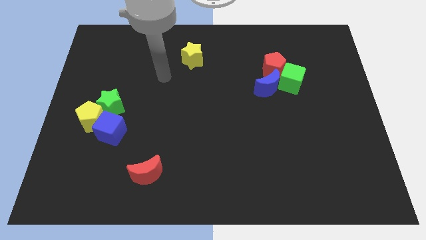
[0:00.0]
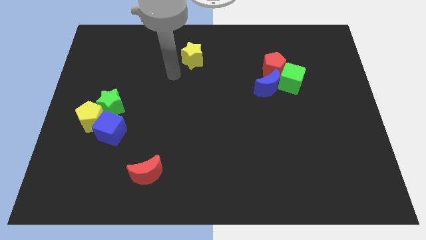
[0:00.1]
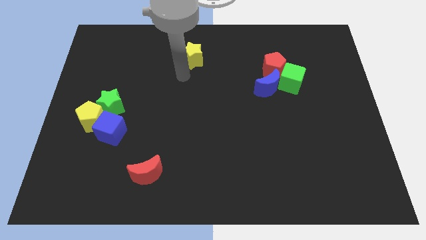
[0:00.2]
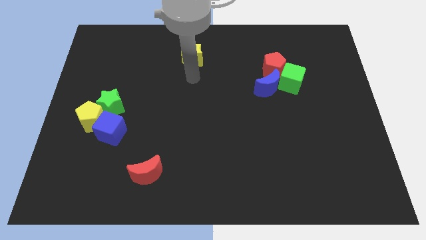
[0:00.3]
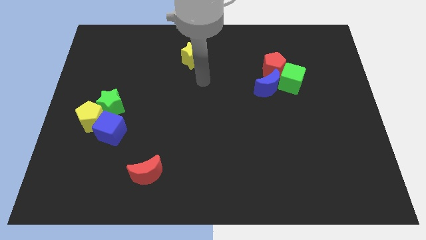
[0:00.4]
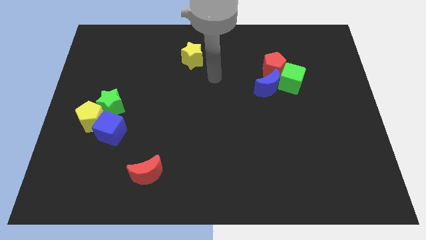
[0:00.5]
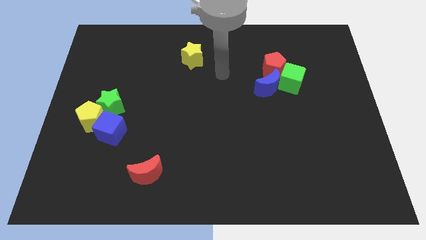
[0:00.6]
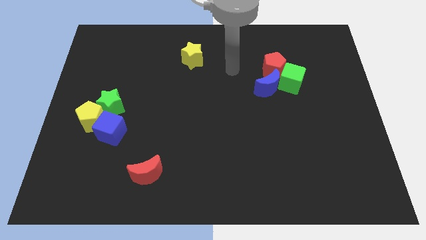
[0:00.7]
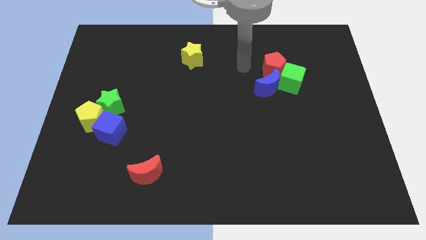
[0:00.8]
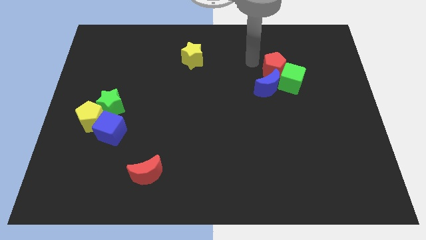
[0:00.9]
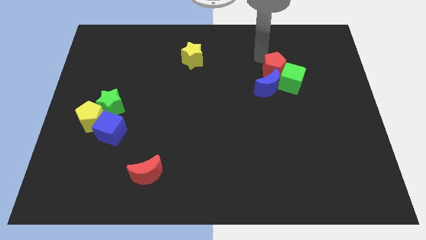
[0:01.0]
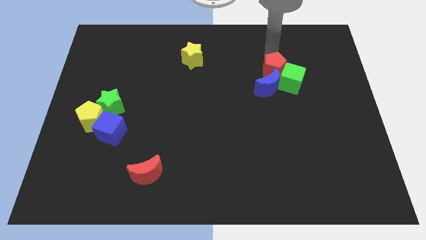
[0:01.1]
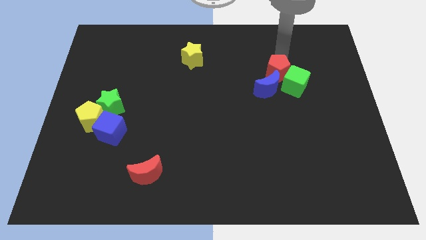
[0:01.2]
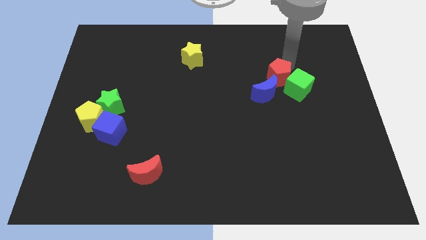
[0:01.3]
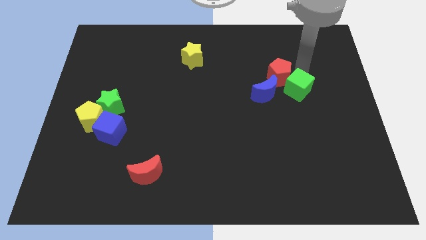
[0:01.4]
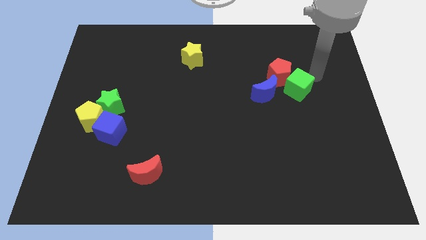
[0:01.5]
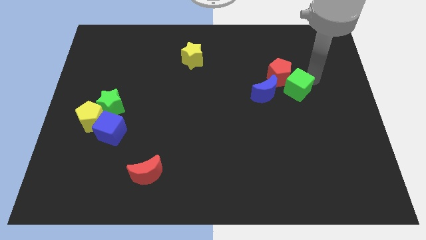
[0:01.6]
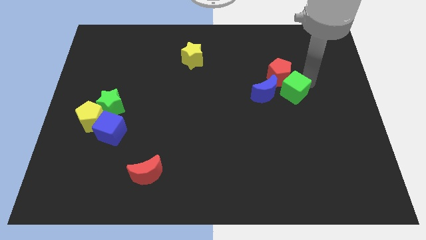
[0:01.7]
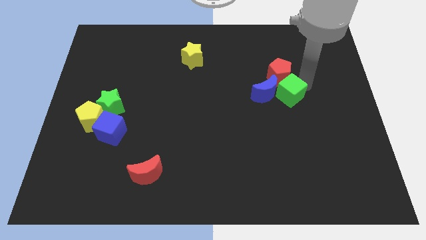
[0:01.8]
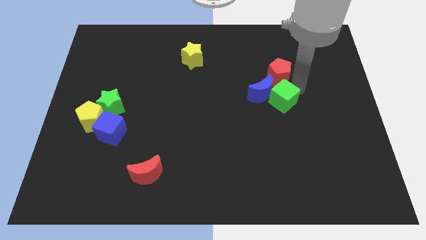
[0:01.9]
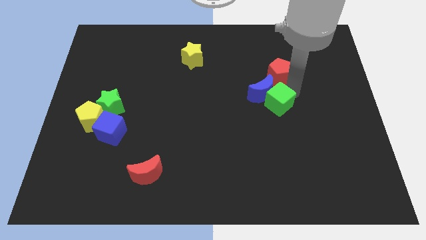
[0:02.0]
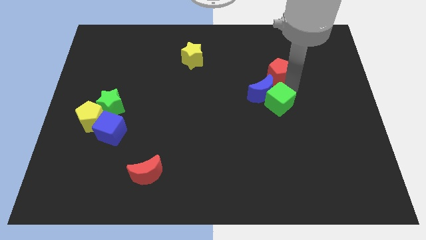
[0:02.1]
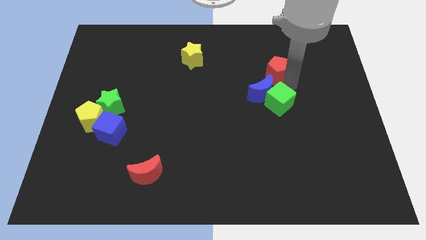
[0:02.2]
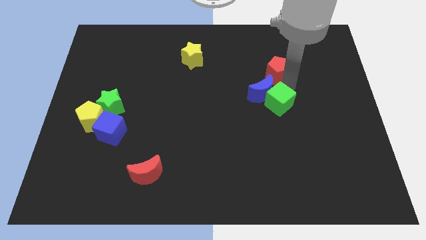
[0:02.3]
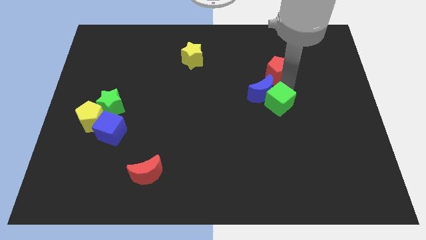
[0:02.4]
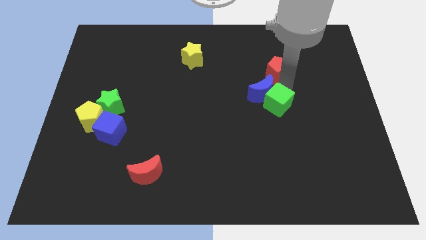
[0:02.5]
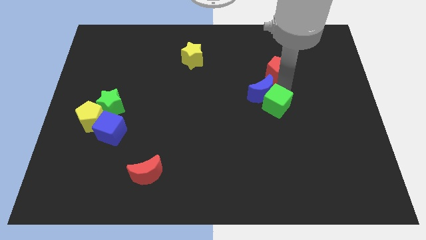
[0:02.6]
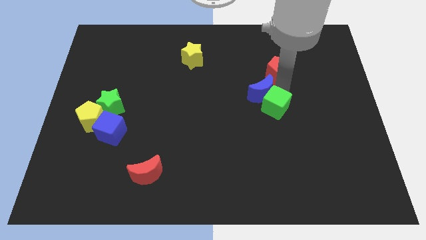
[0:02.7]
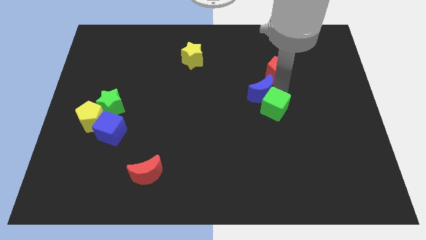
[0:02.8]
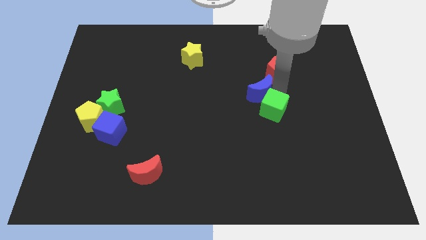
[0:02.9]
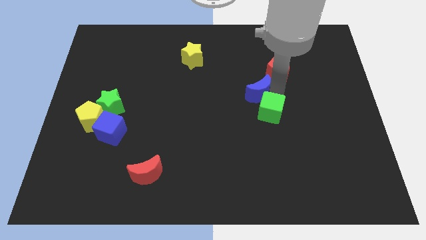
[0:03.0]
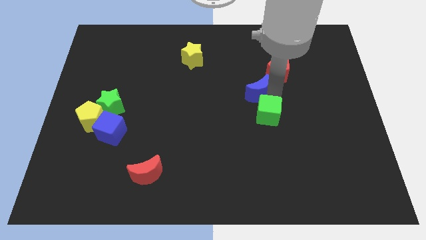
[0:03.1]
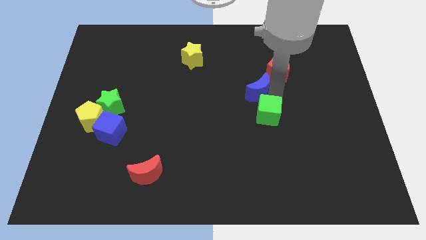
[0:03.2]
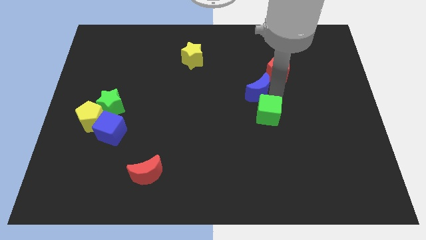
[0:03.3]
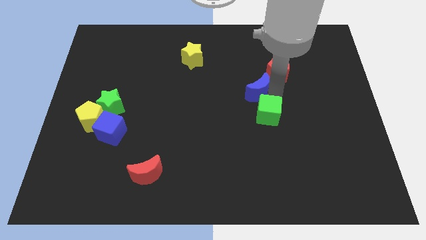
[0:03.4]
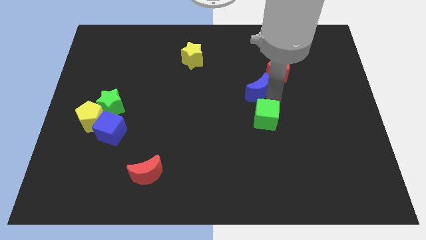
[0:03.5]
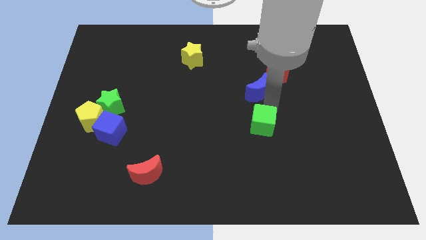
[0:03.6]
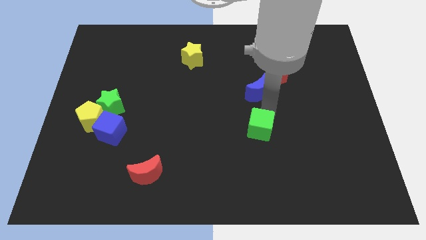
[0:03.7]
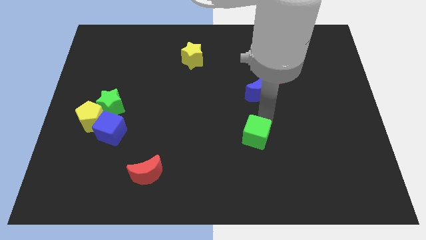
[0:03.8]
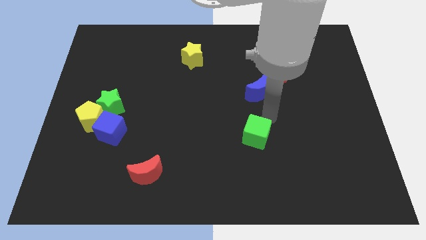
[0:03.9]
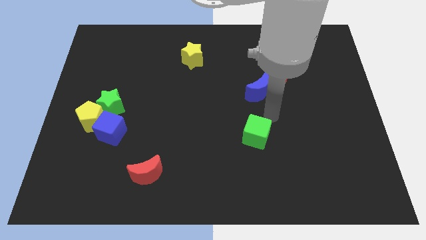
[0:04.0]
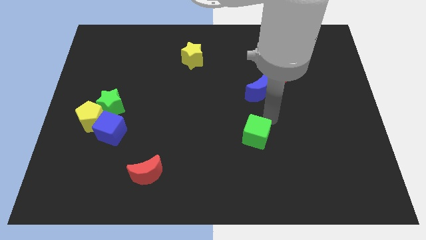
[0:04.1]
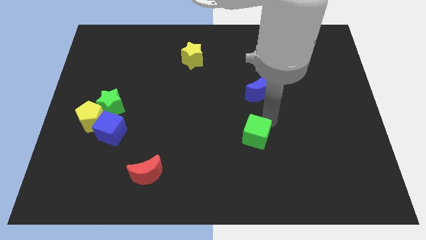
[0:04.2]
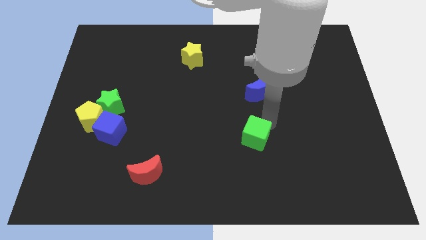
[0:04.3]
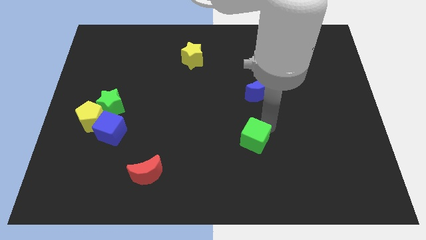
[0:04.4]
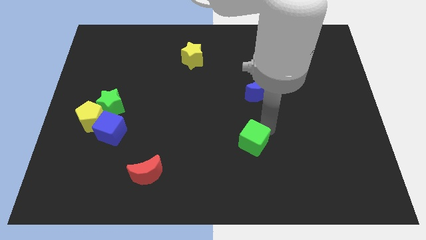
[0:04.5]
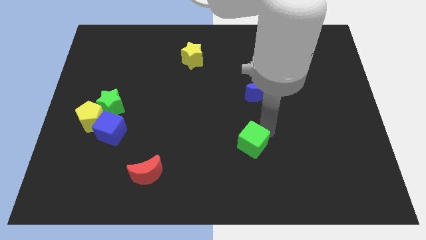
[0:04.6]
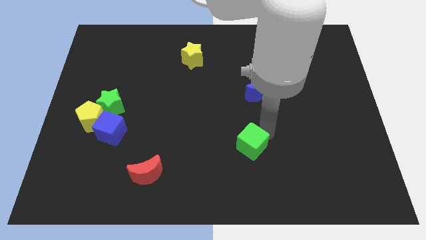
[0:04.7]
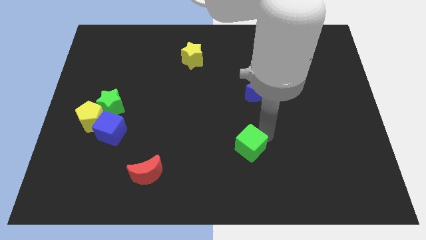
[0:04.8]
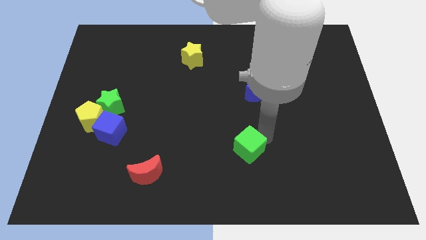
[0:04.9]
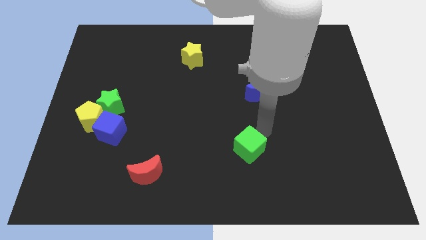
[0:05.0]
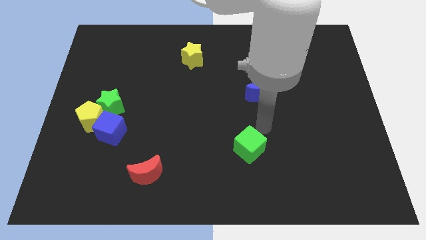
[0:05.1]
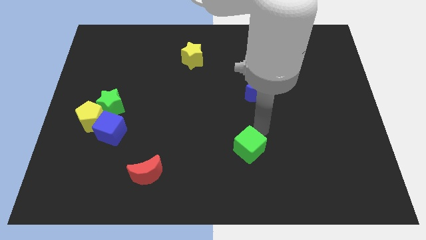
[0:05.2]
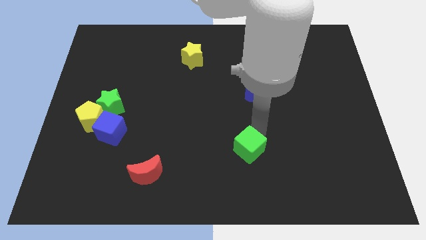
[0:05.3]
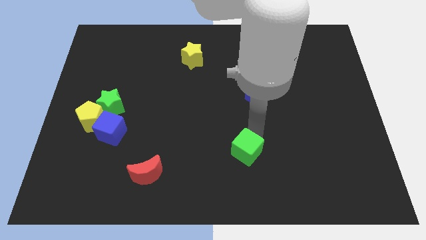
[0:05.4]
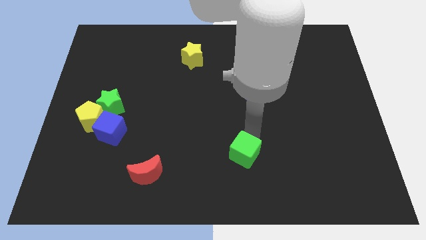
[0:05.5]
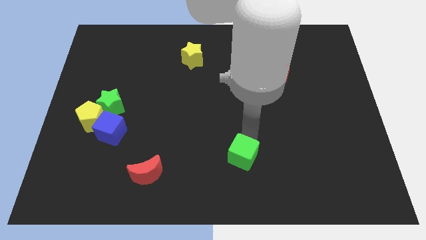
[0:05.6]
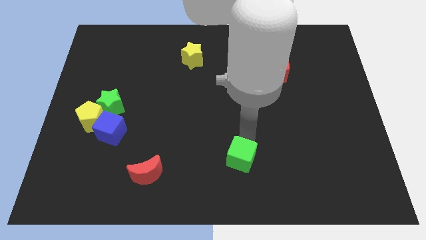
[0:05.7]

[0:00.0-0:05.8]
move the green cube to the bottom

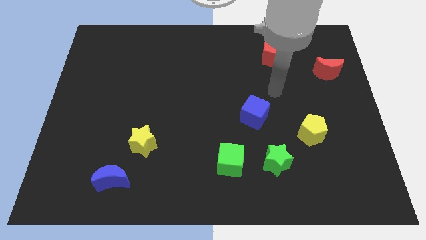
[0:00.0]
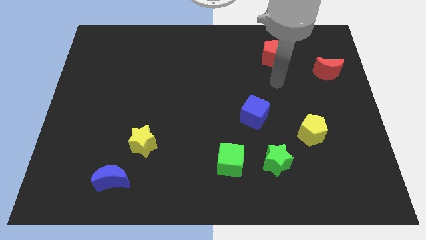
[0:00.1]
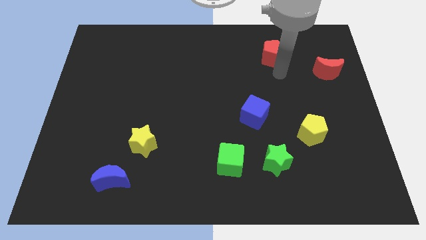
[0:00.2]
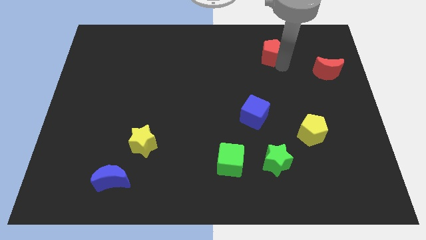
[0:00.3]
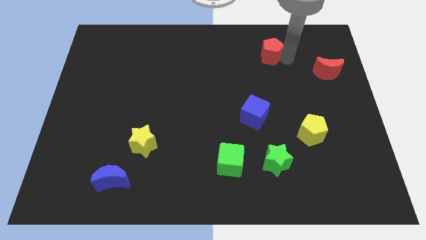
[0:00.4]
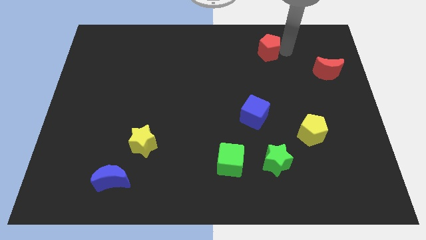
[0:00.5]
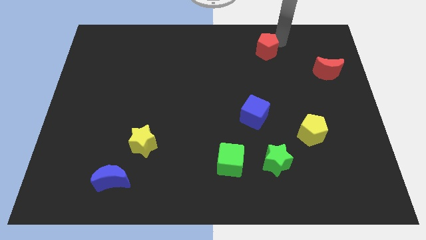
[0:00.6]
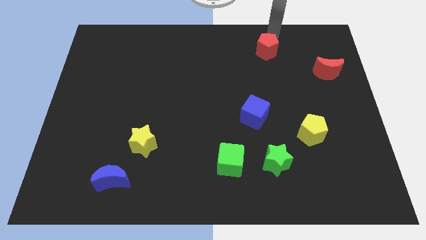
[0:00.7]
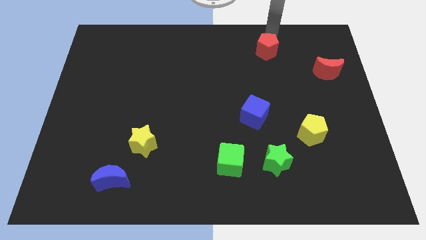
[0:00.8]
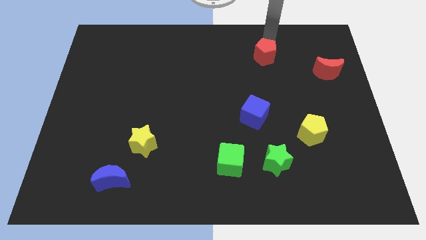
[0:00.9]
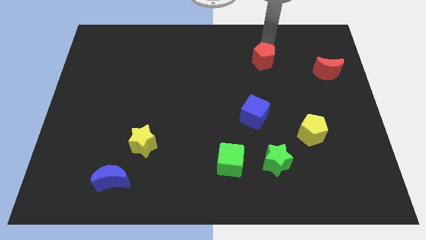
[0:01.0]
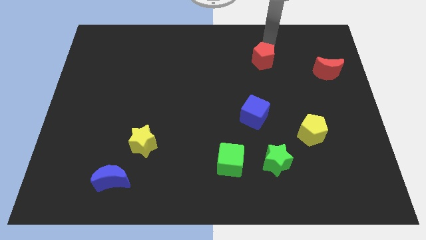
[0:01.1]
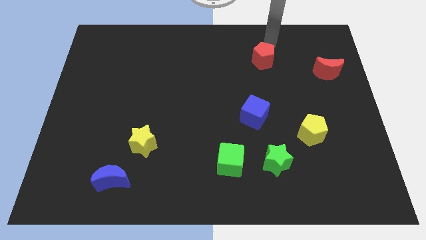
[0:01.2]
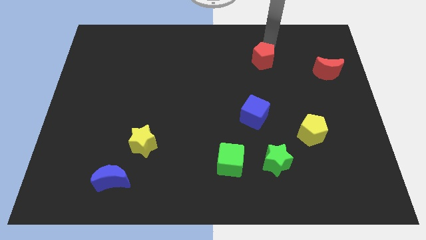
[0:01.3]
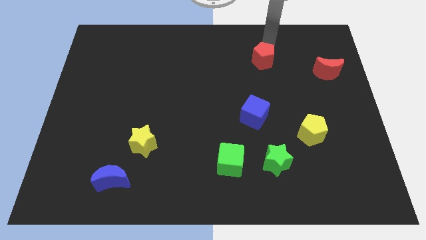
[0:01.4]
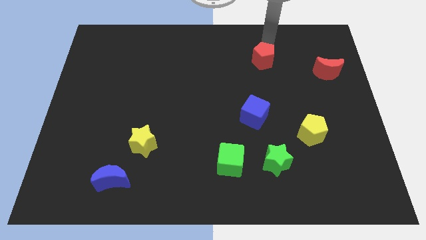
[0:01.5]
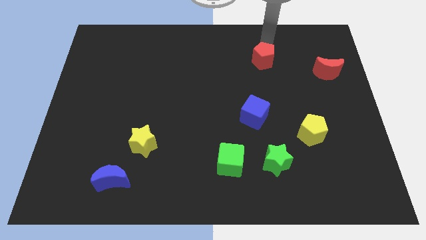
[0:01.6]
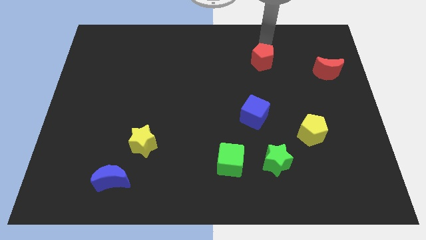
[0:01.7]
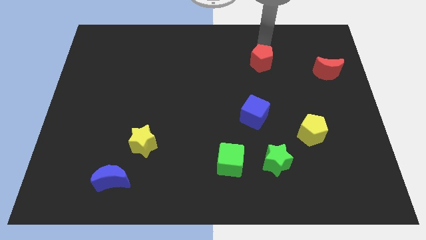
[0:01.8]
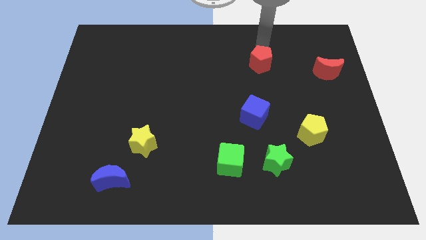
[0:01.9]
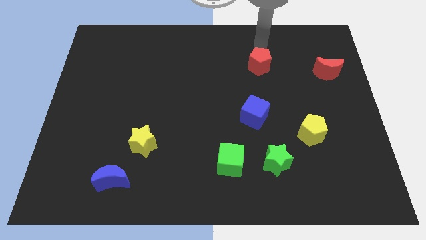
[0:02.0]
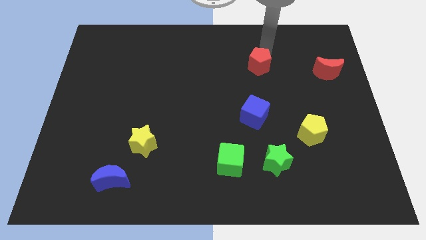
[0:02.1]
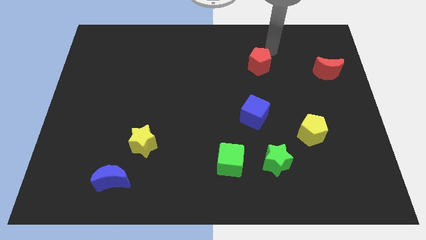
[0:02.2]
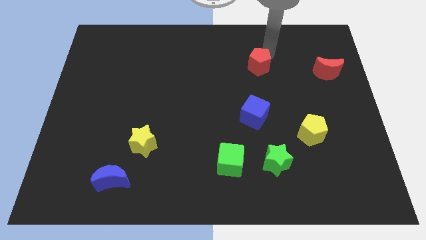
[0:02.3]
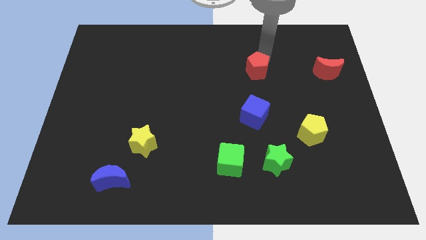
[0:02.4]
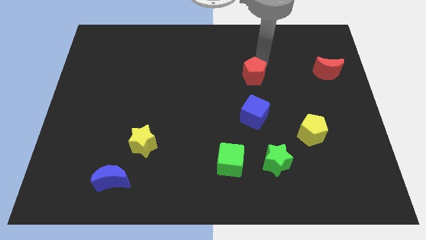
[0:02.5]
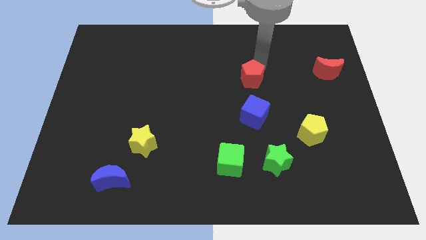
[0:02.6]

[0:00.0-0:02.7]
push the red pentagon to the middle of the board
